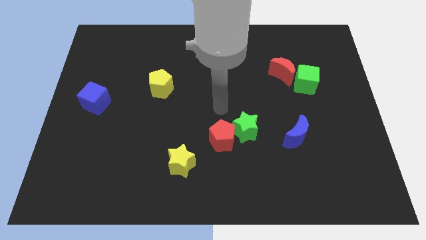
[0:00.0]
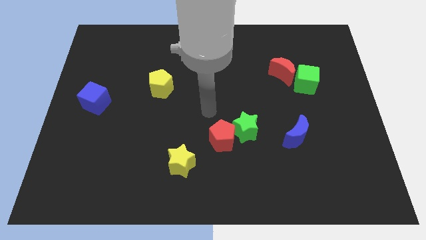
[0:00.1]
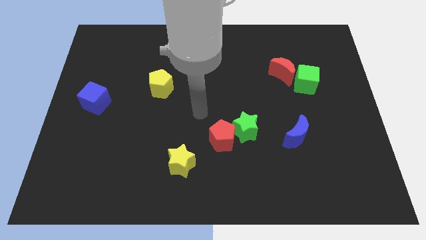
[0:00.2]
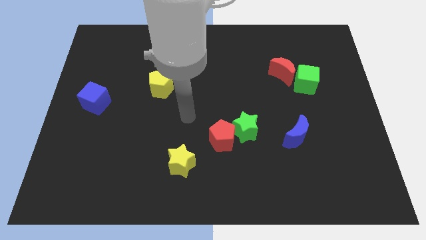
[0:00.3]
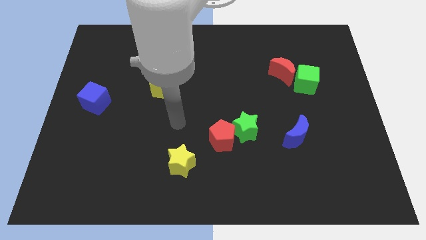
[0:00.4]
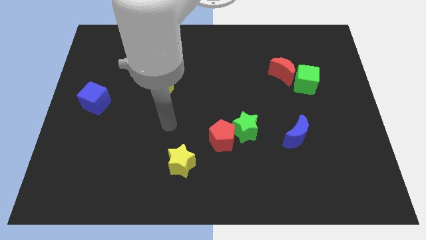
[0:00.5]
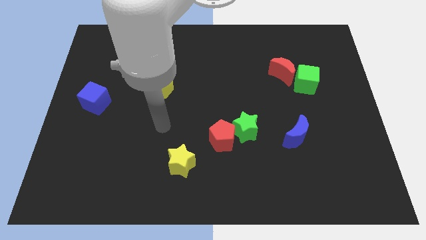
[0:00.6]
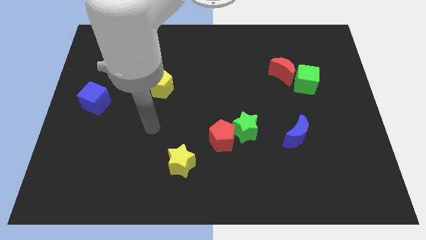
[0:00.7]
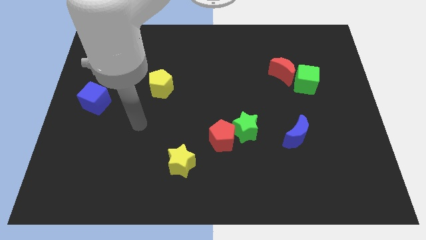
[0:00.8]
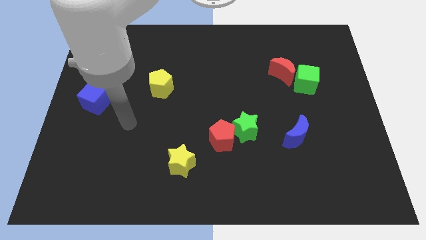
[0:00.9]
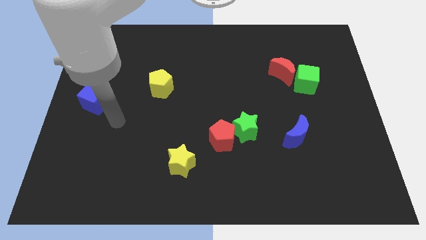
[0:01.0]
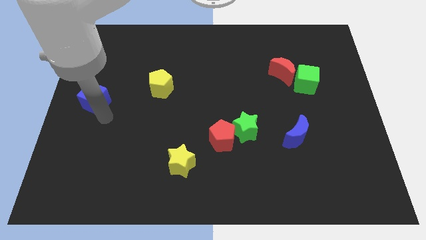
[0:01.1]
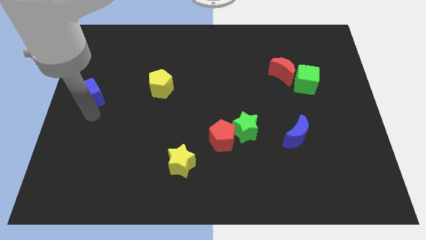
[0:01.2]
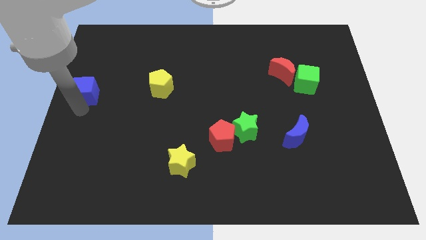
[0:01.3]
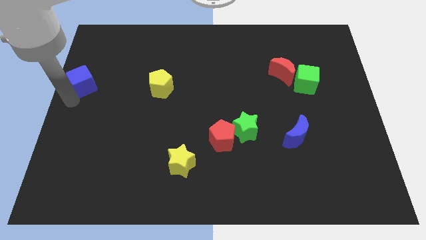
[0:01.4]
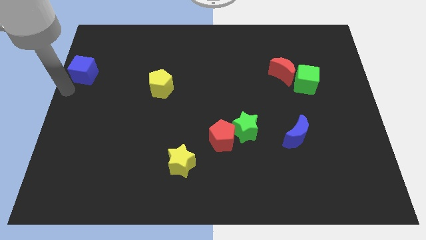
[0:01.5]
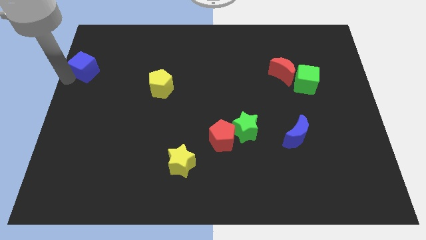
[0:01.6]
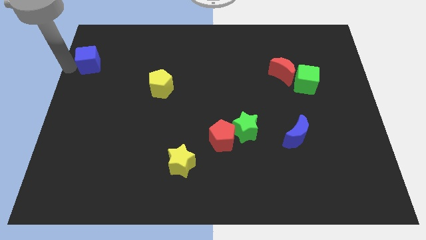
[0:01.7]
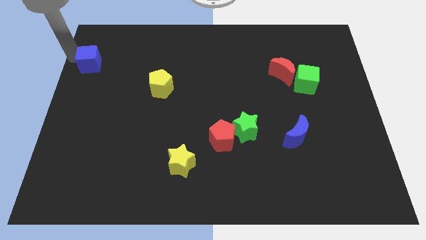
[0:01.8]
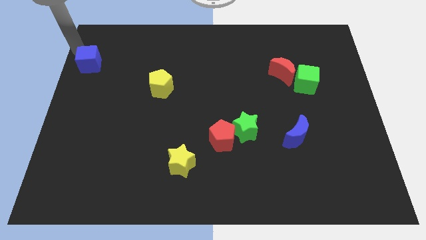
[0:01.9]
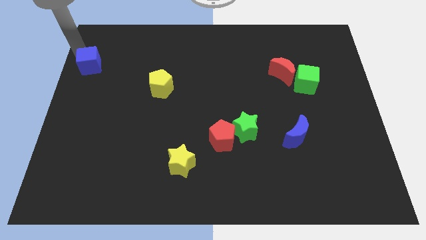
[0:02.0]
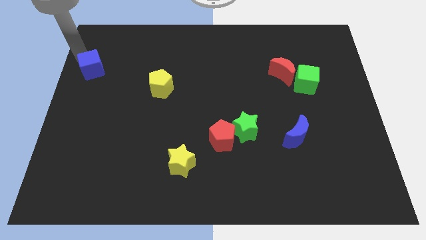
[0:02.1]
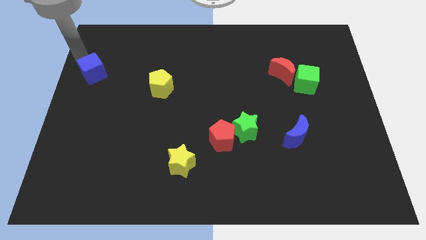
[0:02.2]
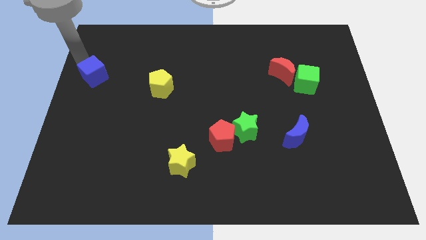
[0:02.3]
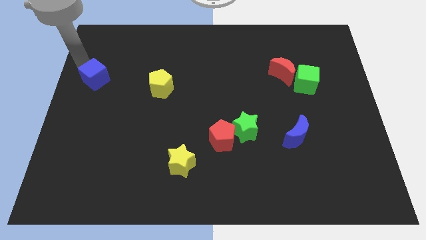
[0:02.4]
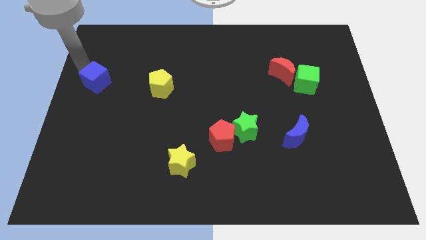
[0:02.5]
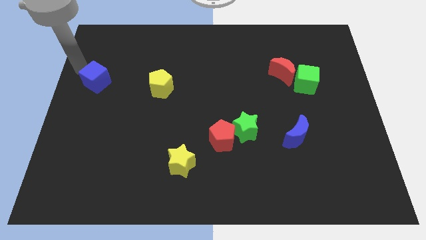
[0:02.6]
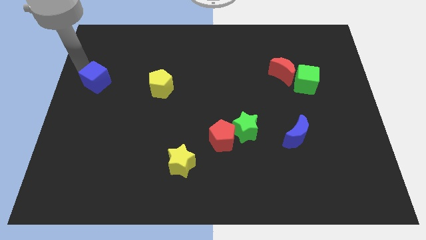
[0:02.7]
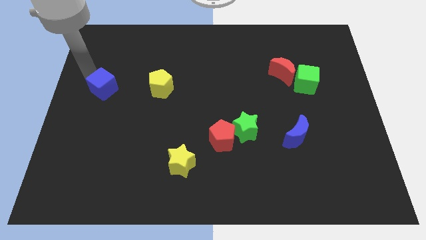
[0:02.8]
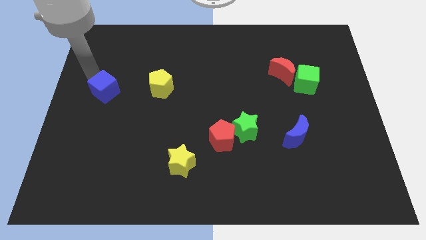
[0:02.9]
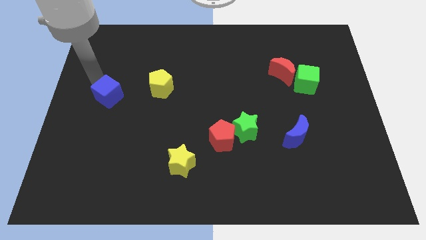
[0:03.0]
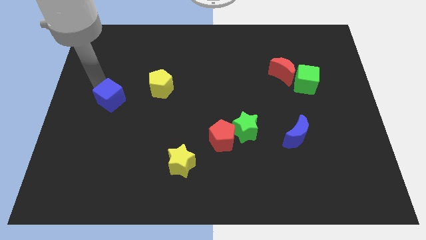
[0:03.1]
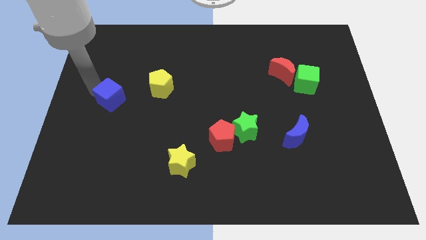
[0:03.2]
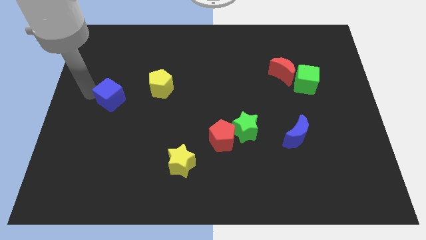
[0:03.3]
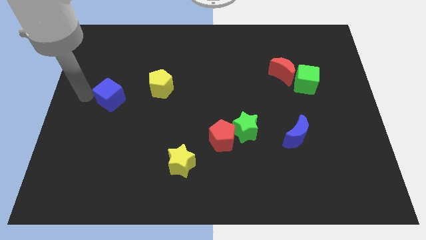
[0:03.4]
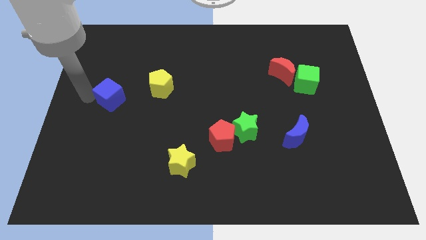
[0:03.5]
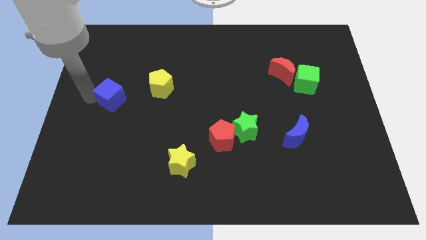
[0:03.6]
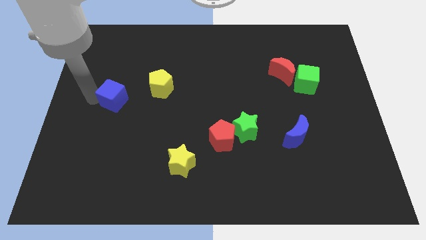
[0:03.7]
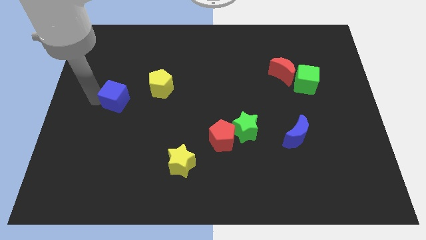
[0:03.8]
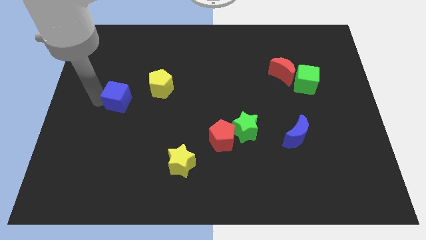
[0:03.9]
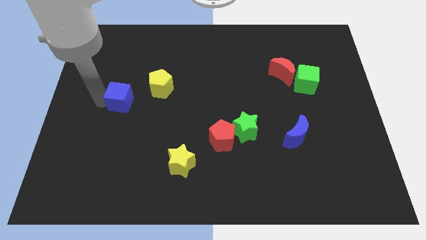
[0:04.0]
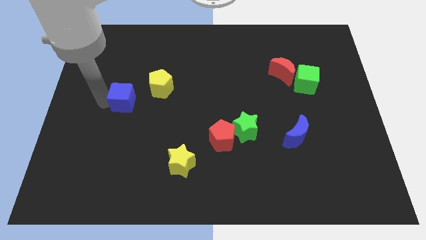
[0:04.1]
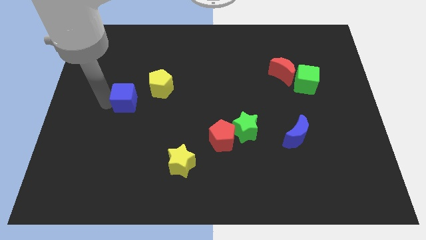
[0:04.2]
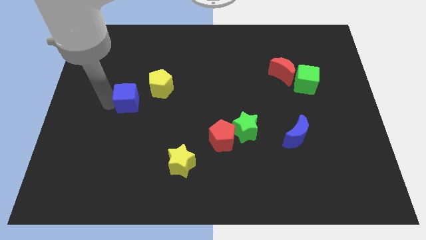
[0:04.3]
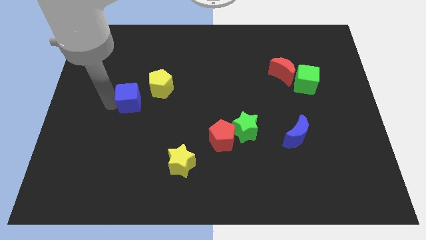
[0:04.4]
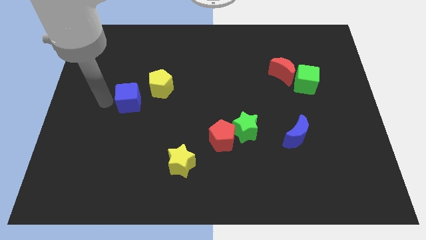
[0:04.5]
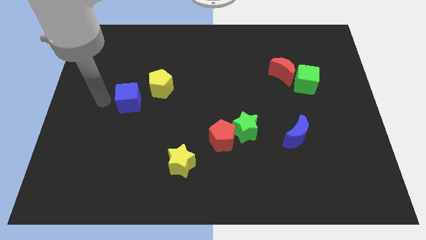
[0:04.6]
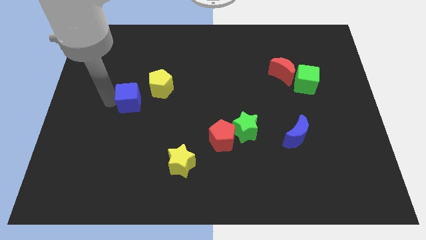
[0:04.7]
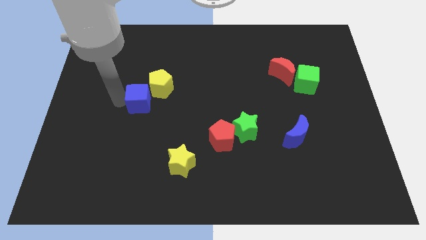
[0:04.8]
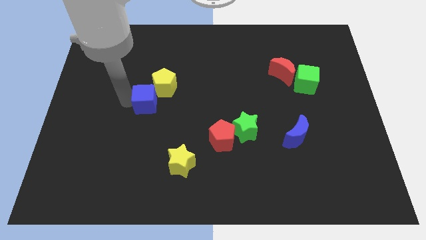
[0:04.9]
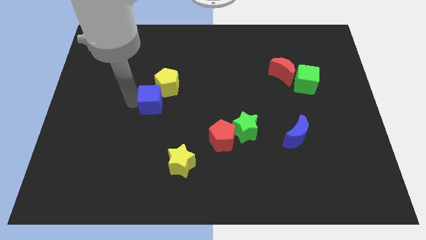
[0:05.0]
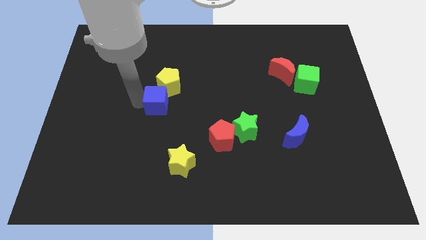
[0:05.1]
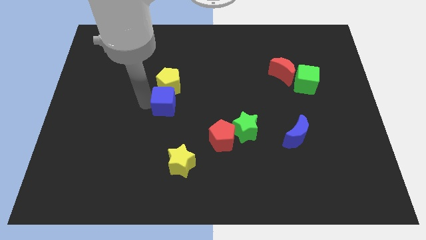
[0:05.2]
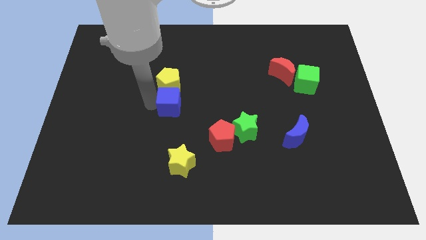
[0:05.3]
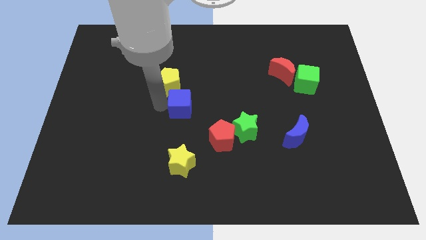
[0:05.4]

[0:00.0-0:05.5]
push the blue cube right

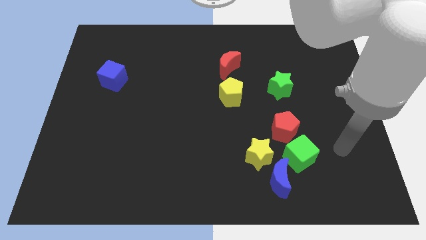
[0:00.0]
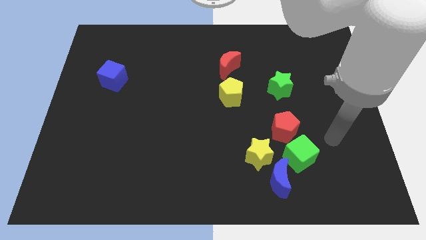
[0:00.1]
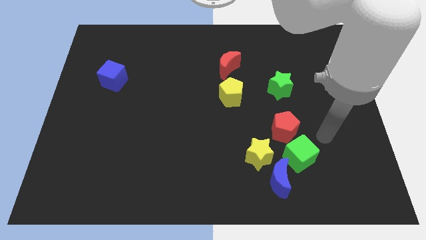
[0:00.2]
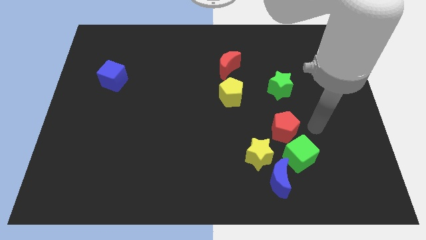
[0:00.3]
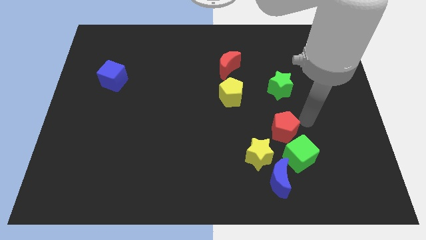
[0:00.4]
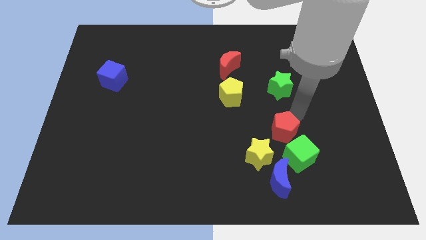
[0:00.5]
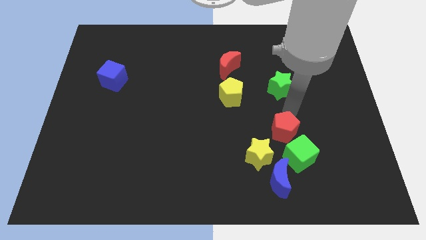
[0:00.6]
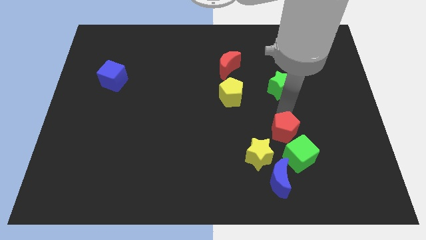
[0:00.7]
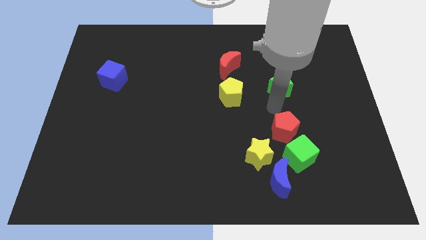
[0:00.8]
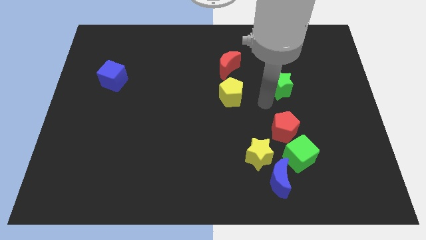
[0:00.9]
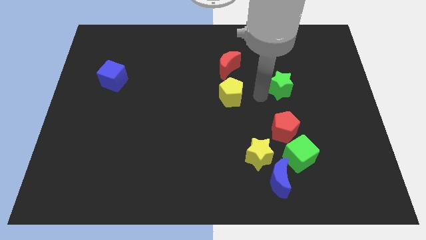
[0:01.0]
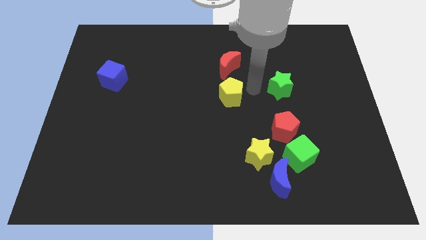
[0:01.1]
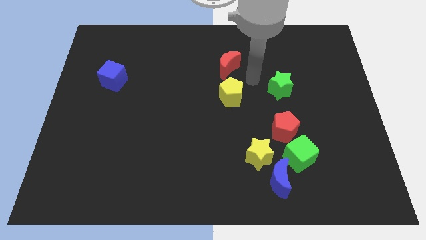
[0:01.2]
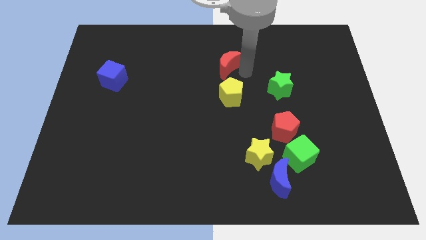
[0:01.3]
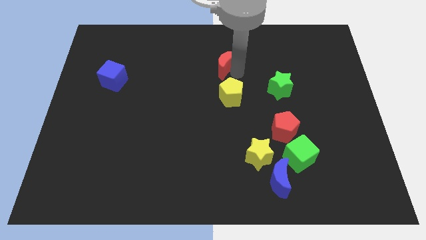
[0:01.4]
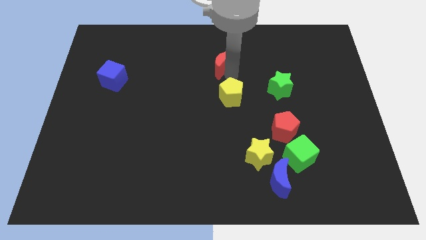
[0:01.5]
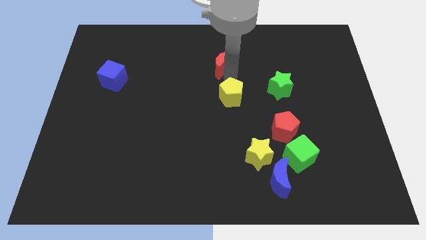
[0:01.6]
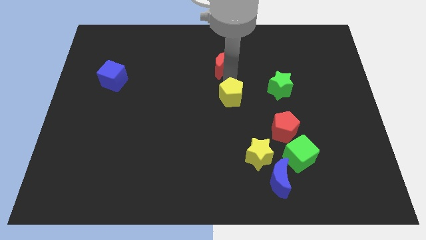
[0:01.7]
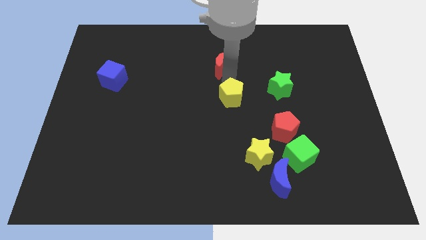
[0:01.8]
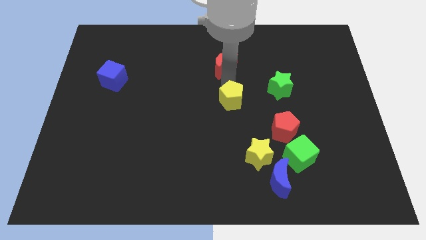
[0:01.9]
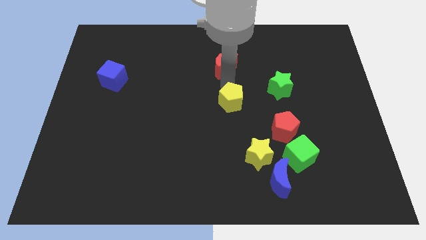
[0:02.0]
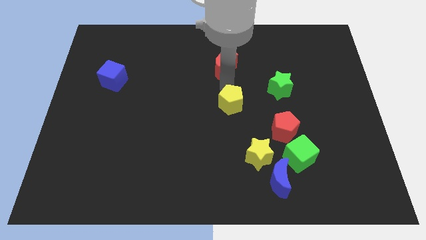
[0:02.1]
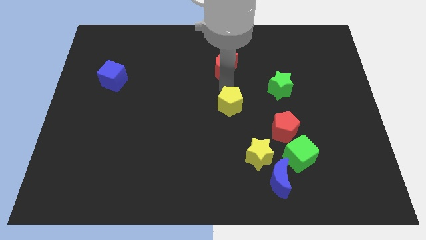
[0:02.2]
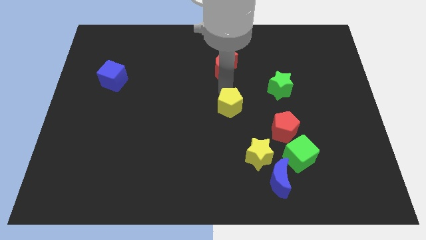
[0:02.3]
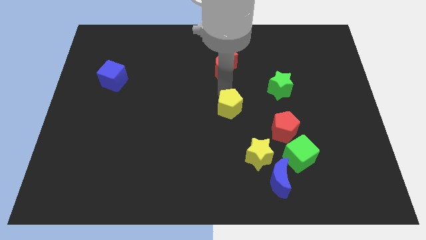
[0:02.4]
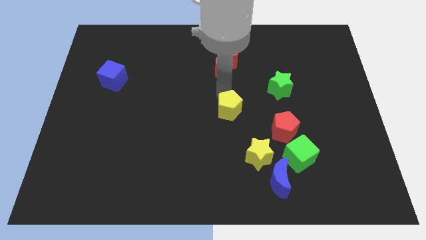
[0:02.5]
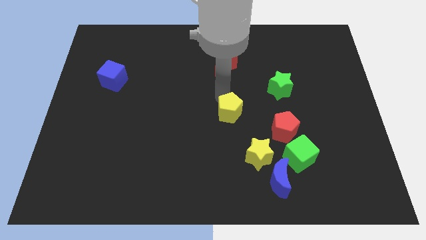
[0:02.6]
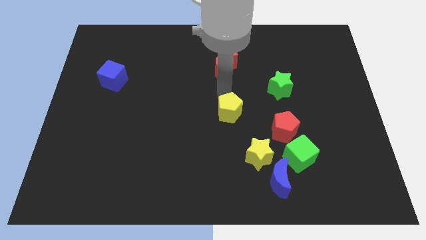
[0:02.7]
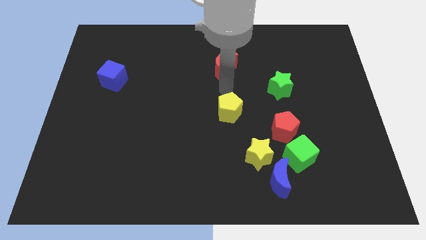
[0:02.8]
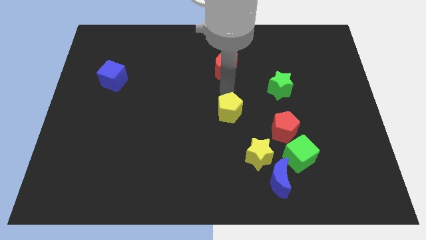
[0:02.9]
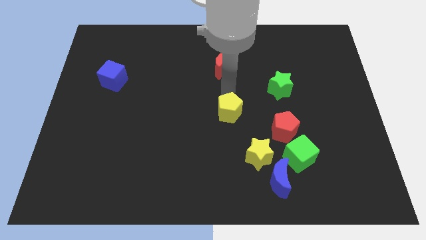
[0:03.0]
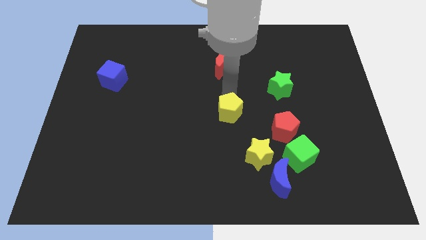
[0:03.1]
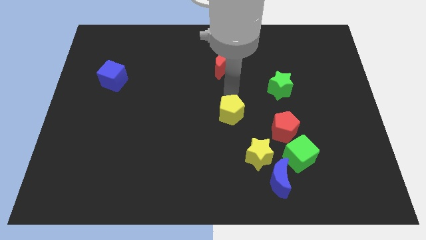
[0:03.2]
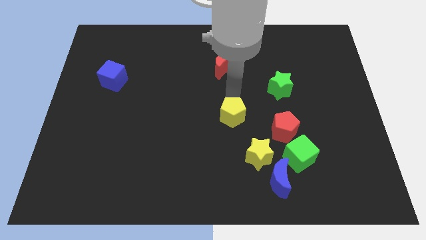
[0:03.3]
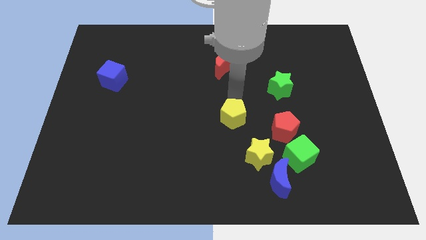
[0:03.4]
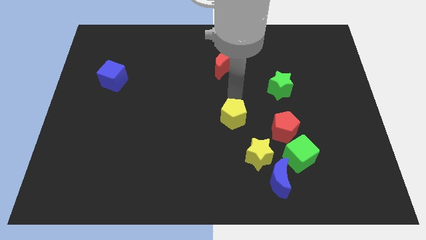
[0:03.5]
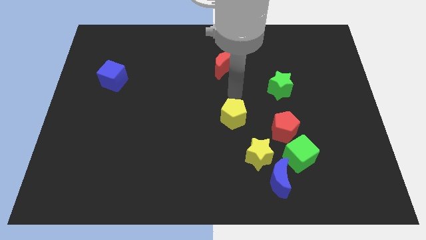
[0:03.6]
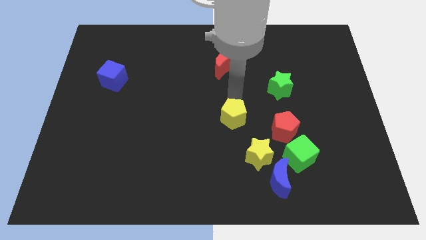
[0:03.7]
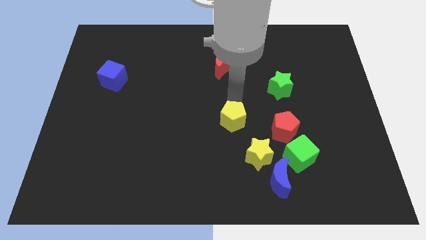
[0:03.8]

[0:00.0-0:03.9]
slightly move the yellow pentagon down
